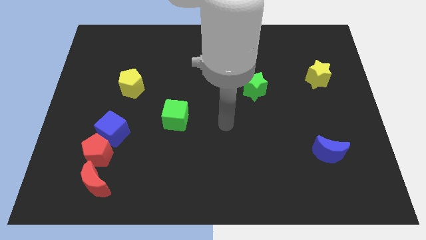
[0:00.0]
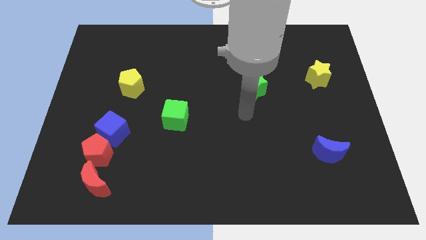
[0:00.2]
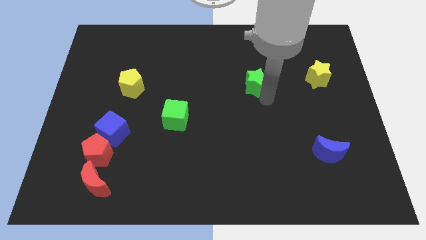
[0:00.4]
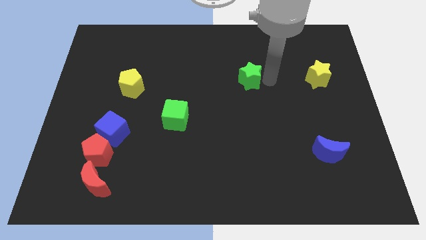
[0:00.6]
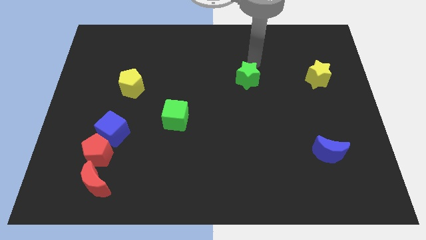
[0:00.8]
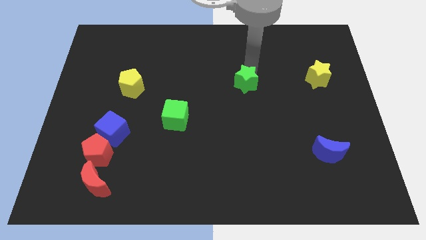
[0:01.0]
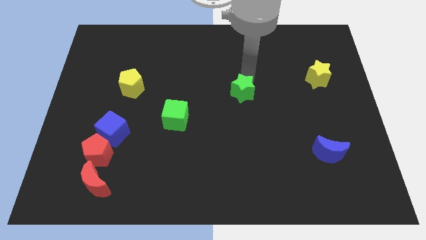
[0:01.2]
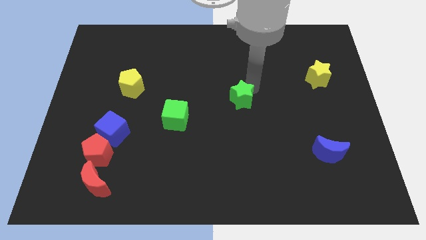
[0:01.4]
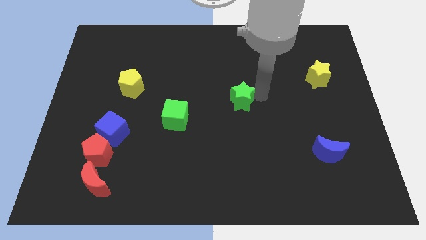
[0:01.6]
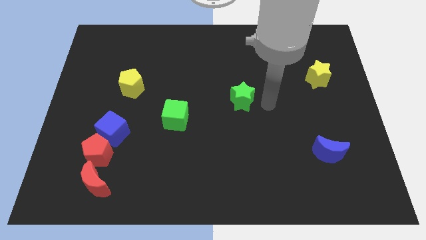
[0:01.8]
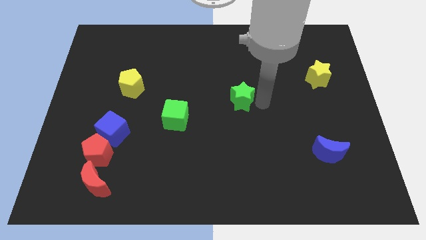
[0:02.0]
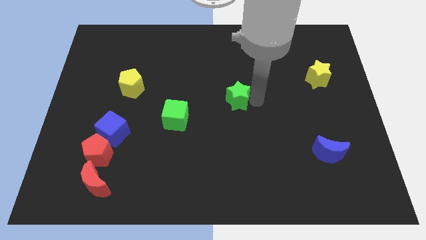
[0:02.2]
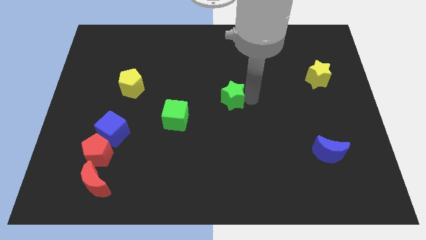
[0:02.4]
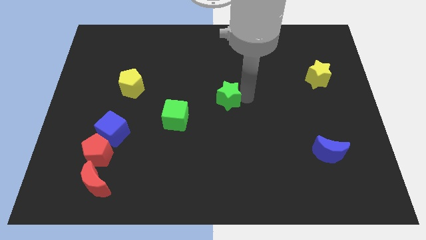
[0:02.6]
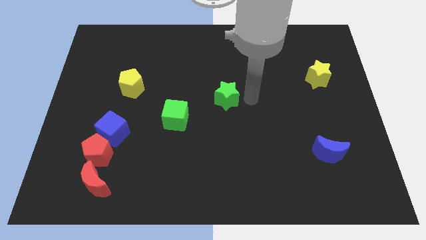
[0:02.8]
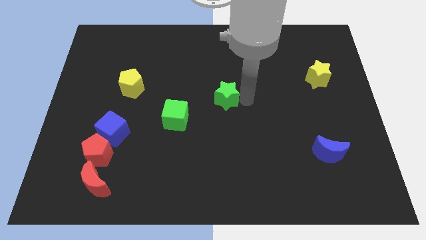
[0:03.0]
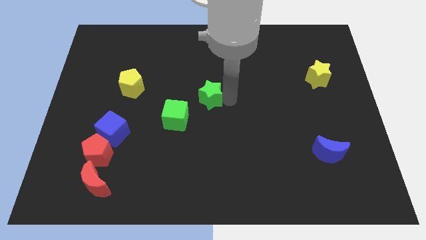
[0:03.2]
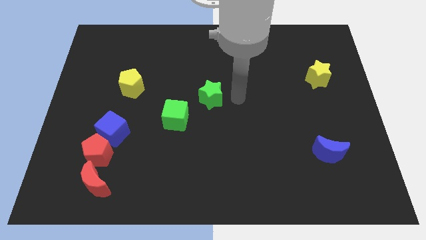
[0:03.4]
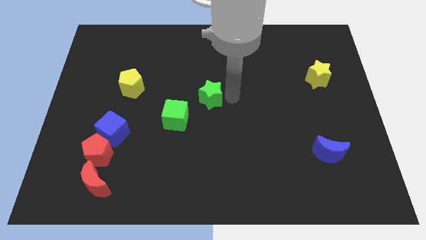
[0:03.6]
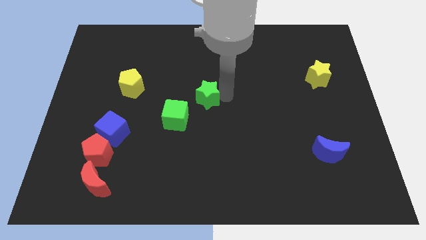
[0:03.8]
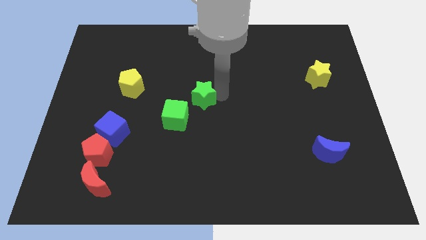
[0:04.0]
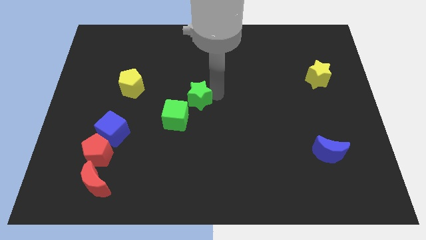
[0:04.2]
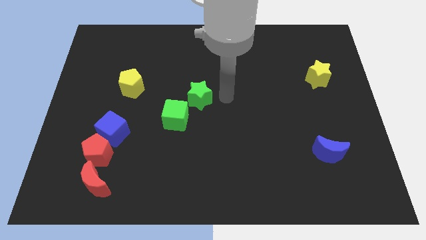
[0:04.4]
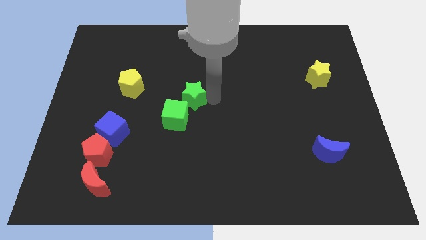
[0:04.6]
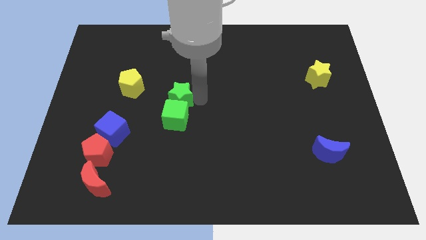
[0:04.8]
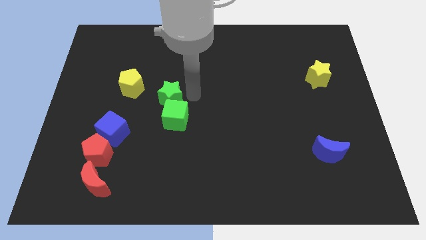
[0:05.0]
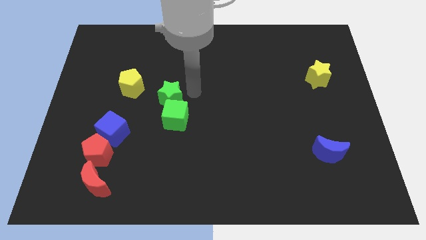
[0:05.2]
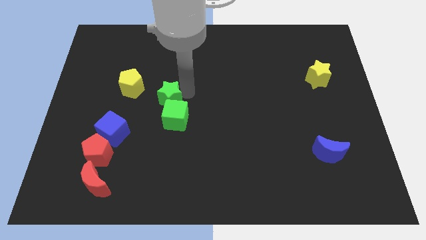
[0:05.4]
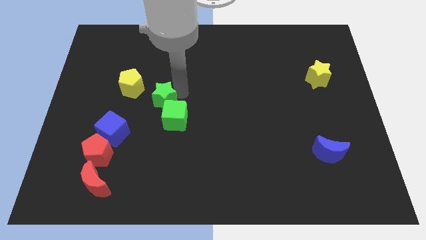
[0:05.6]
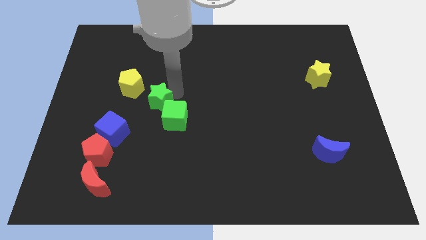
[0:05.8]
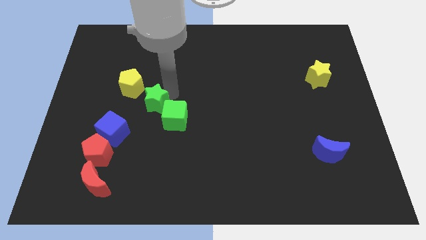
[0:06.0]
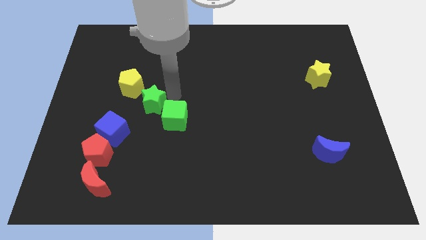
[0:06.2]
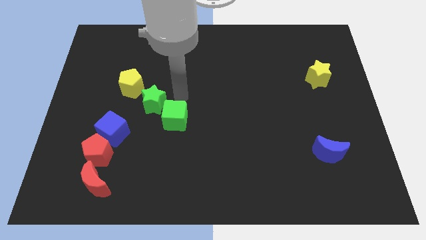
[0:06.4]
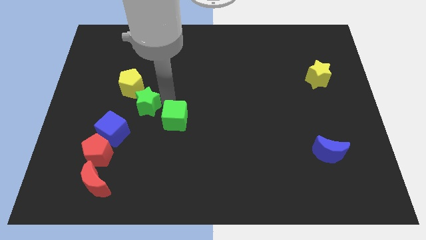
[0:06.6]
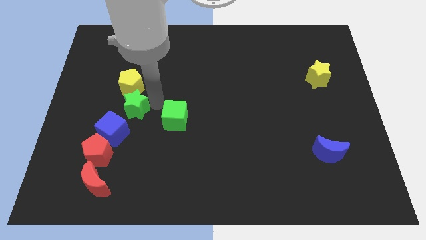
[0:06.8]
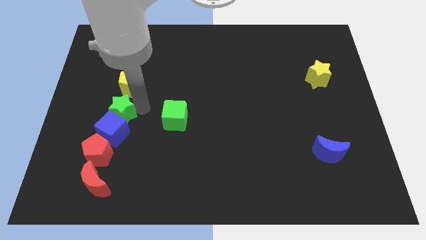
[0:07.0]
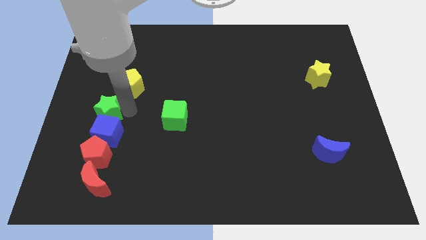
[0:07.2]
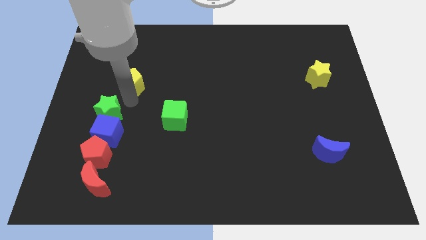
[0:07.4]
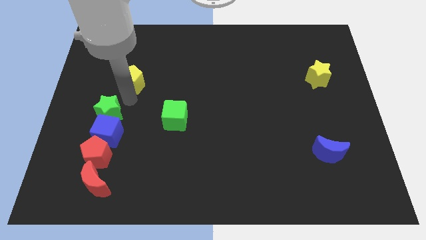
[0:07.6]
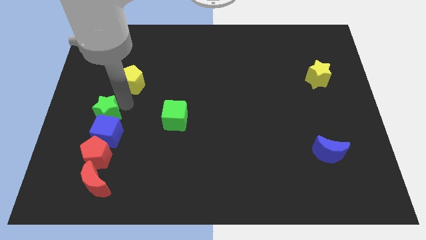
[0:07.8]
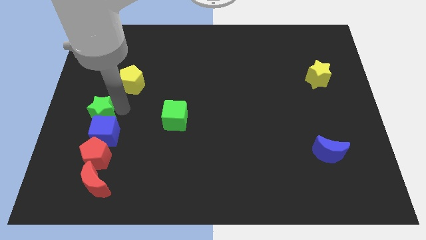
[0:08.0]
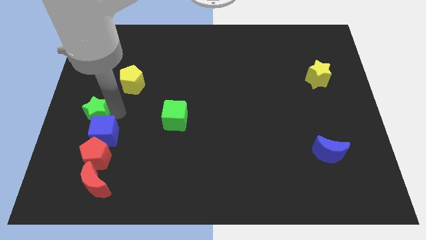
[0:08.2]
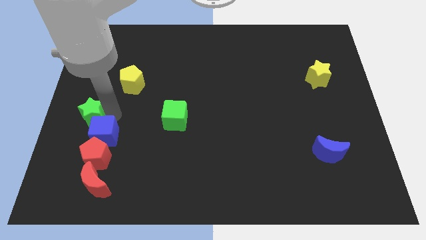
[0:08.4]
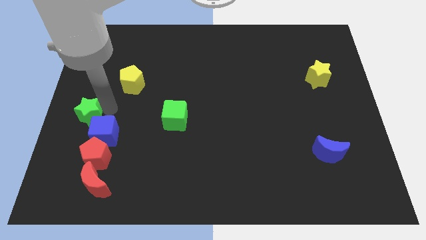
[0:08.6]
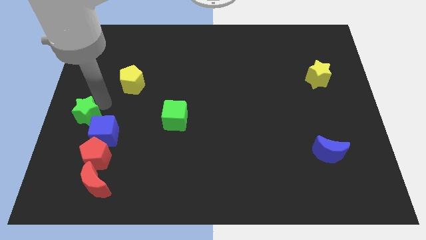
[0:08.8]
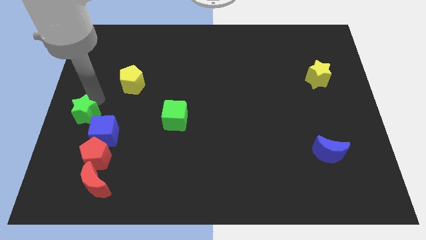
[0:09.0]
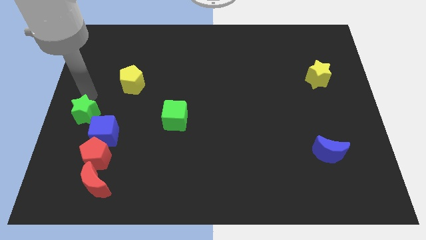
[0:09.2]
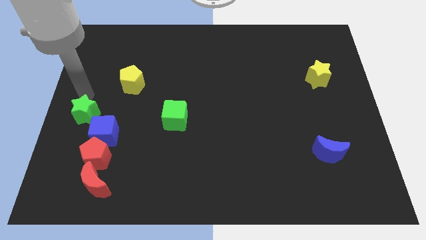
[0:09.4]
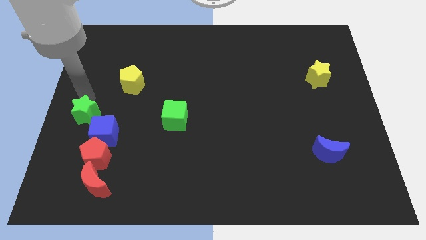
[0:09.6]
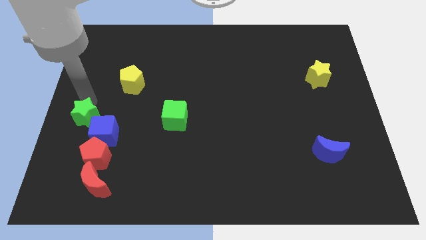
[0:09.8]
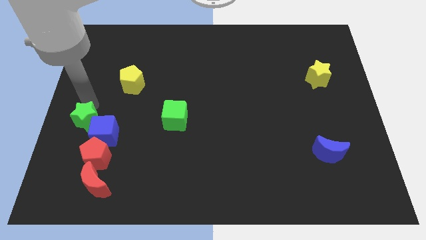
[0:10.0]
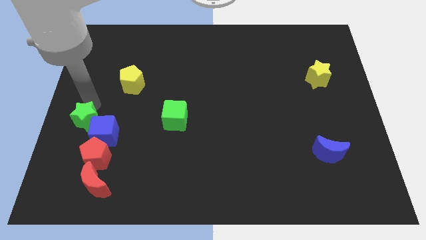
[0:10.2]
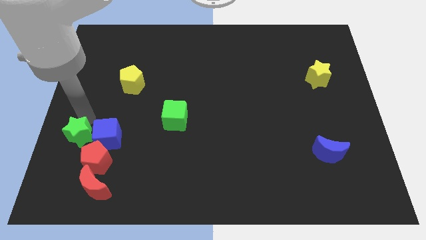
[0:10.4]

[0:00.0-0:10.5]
push the green star diagonally down and to the left of the blue cube

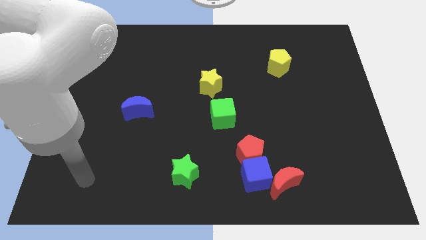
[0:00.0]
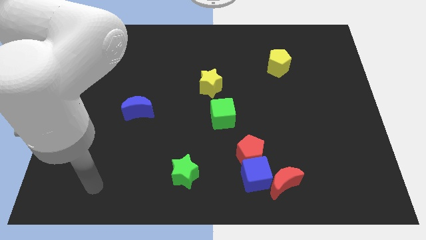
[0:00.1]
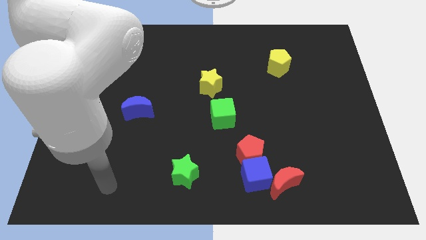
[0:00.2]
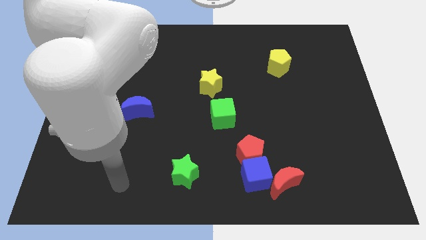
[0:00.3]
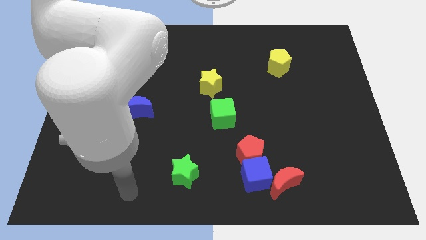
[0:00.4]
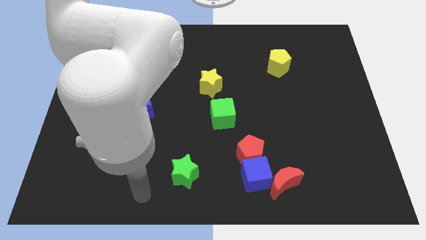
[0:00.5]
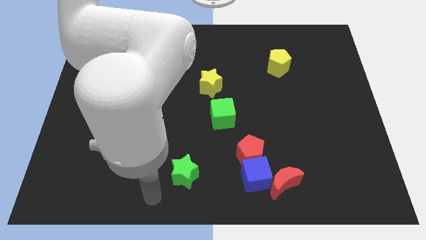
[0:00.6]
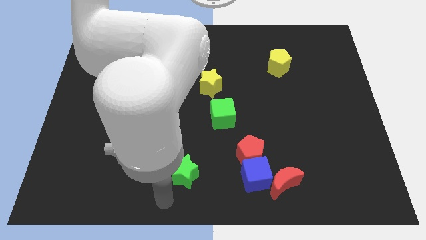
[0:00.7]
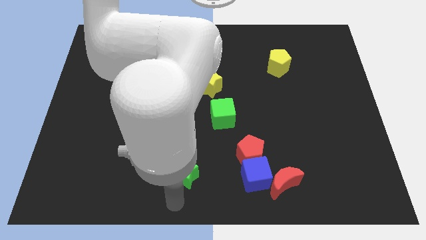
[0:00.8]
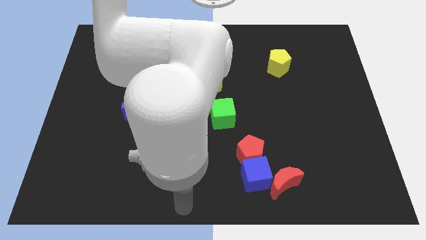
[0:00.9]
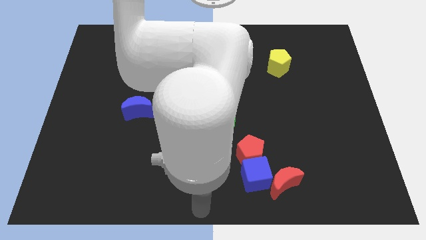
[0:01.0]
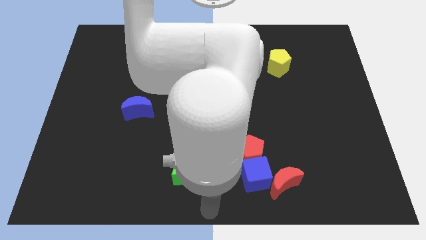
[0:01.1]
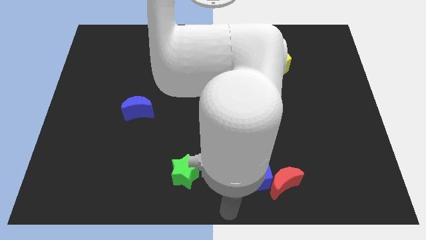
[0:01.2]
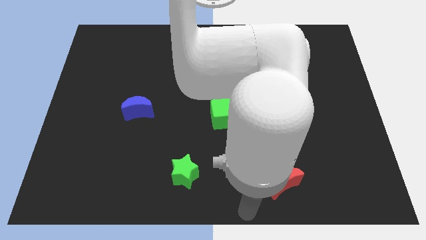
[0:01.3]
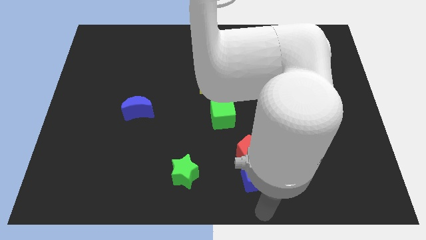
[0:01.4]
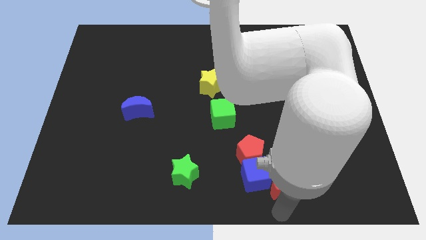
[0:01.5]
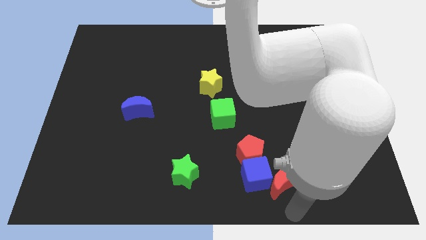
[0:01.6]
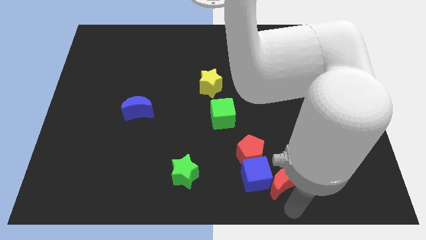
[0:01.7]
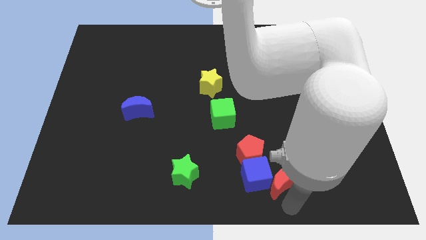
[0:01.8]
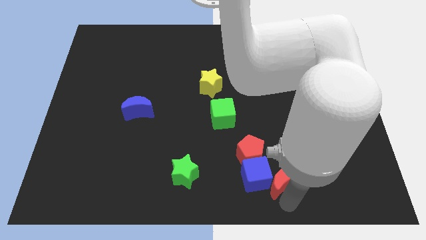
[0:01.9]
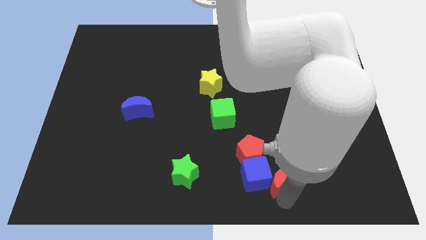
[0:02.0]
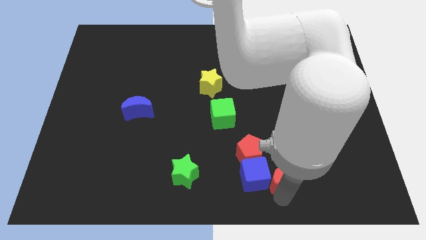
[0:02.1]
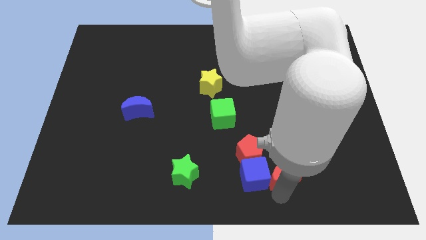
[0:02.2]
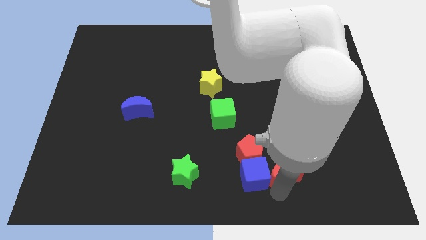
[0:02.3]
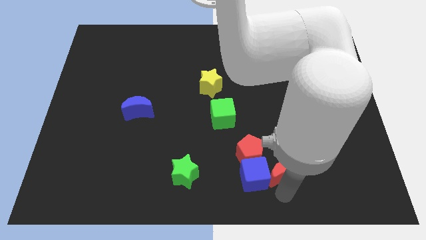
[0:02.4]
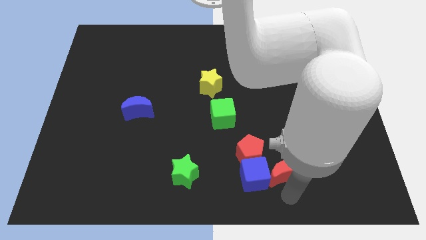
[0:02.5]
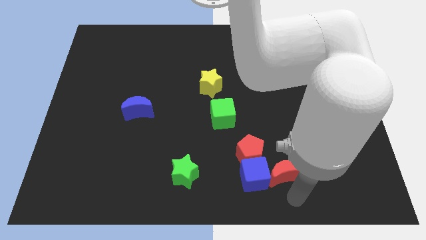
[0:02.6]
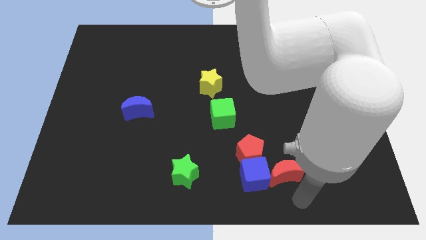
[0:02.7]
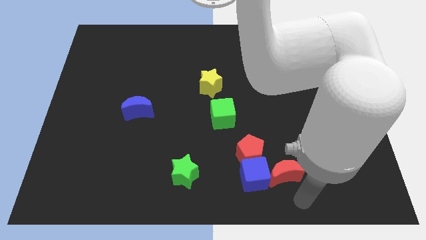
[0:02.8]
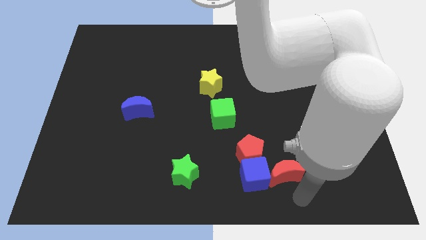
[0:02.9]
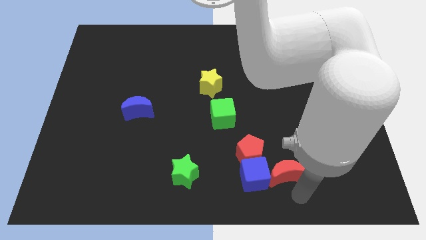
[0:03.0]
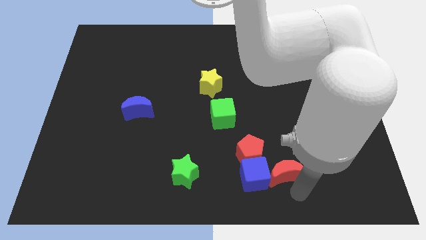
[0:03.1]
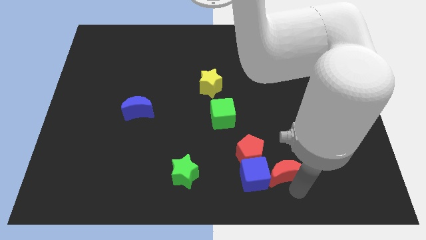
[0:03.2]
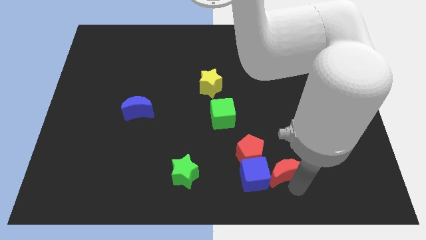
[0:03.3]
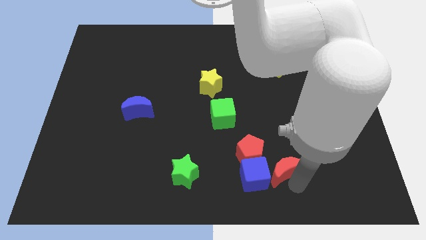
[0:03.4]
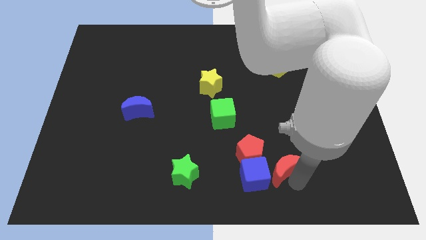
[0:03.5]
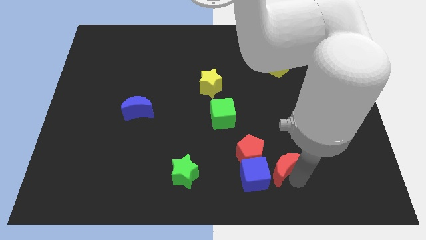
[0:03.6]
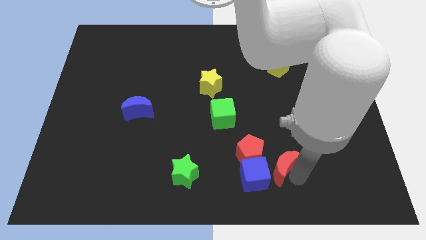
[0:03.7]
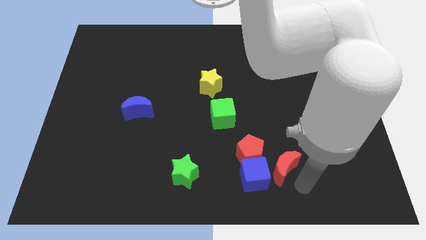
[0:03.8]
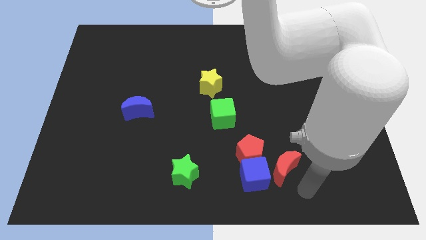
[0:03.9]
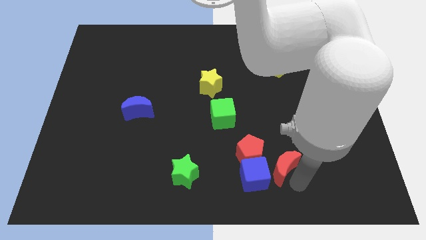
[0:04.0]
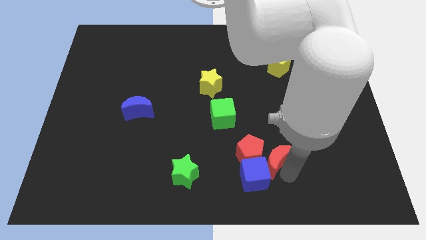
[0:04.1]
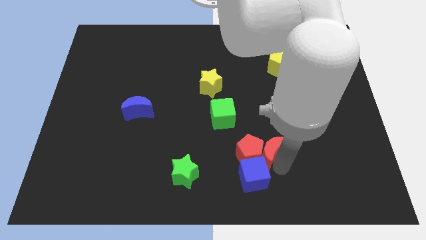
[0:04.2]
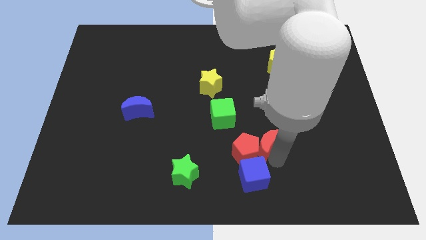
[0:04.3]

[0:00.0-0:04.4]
put the red moon to the bottom right side of the green cube
